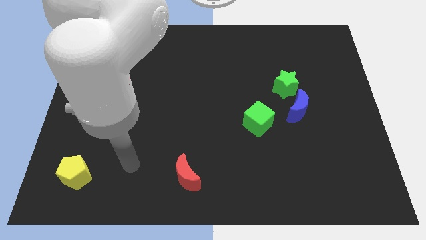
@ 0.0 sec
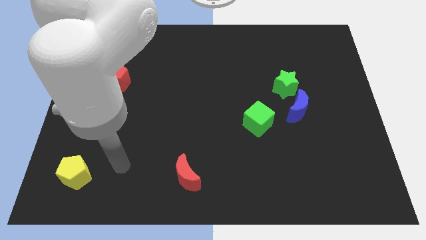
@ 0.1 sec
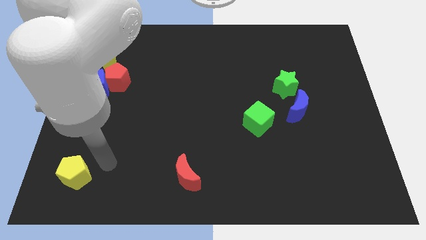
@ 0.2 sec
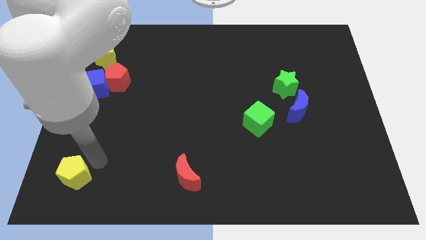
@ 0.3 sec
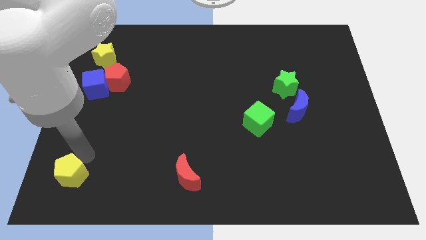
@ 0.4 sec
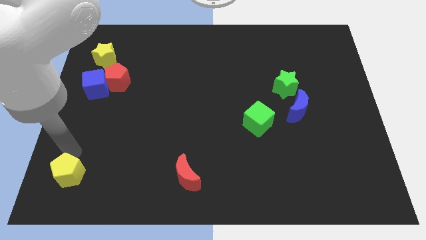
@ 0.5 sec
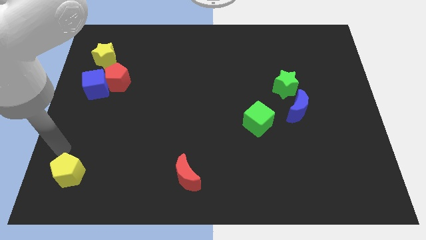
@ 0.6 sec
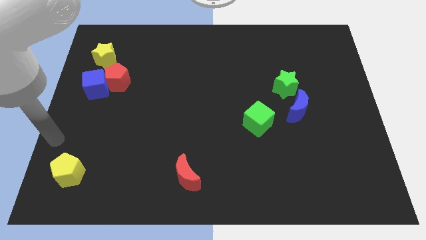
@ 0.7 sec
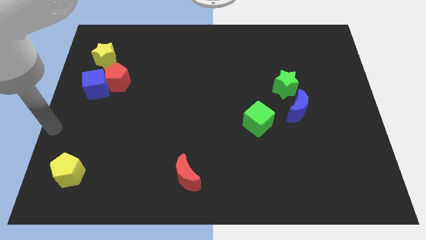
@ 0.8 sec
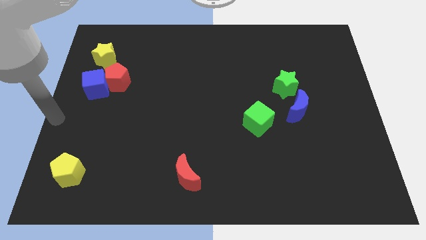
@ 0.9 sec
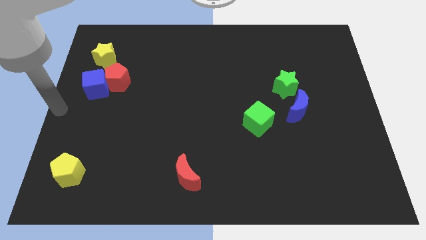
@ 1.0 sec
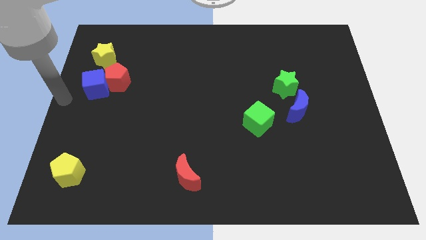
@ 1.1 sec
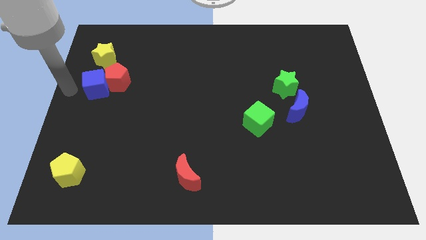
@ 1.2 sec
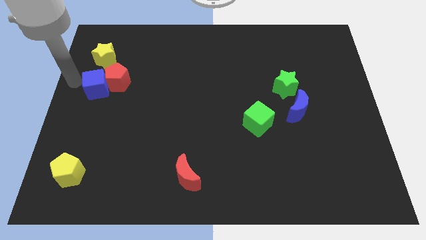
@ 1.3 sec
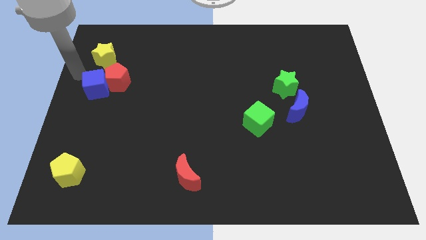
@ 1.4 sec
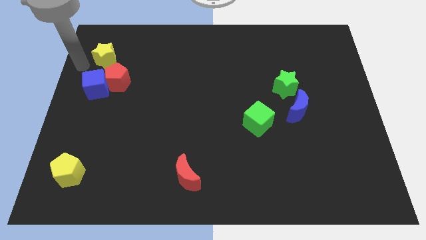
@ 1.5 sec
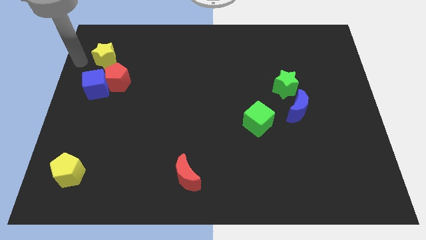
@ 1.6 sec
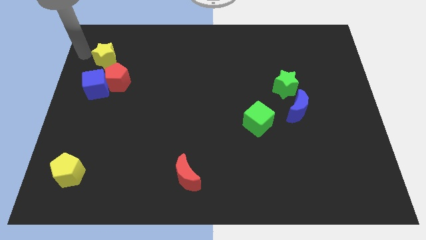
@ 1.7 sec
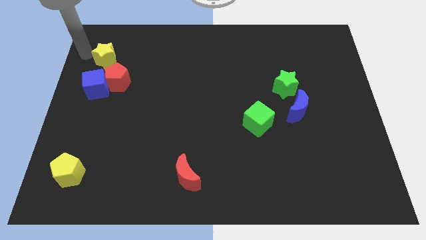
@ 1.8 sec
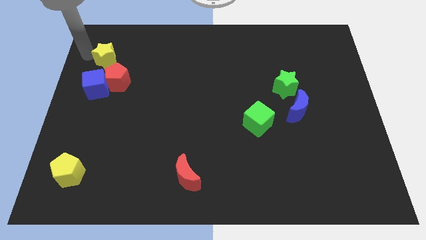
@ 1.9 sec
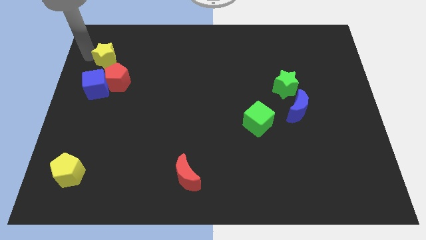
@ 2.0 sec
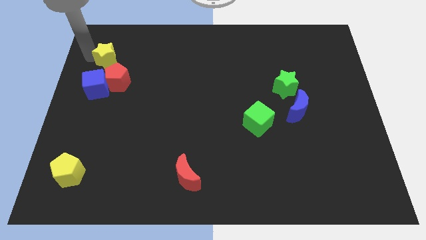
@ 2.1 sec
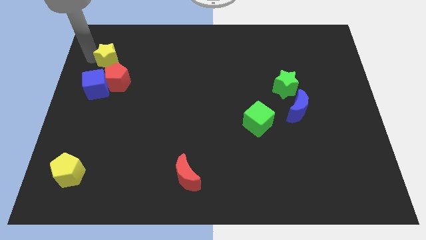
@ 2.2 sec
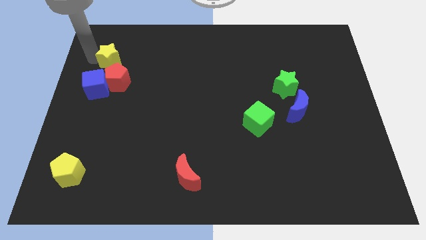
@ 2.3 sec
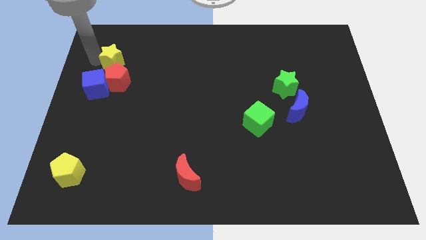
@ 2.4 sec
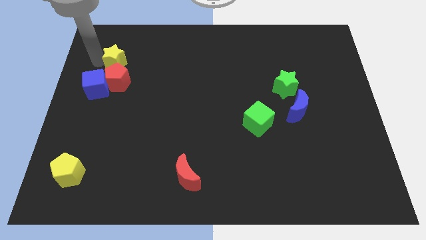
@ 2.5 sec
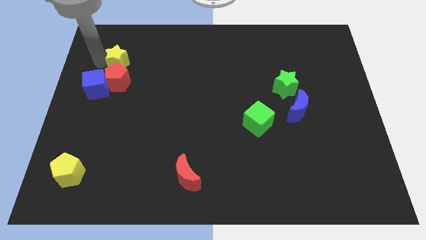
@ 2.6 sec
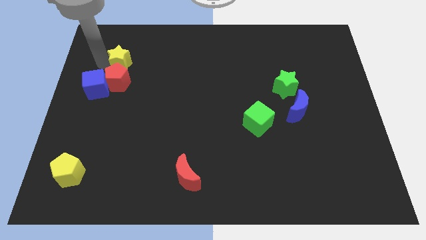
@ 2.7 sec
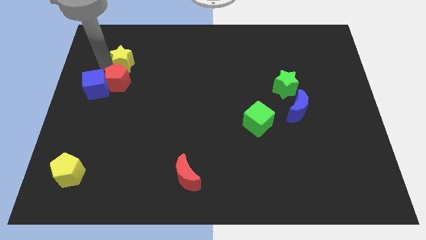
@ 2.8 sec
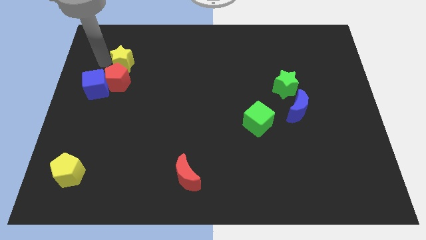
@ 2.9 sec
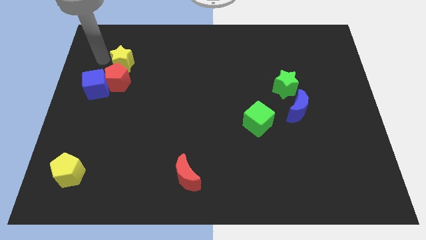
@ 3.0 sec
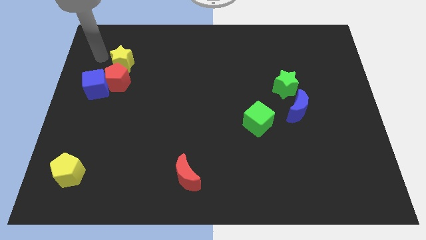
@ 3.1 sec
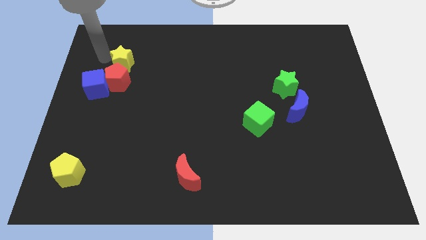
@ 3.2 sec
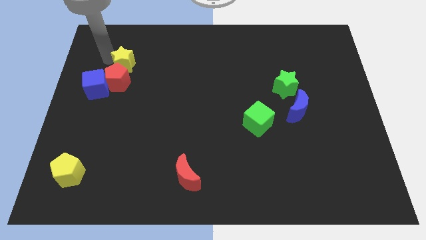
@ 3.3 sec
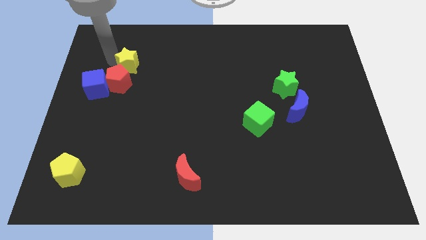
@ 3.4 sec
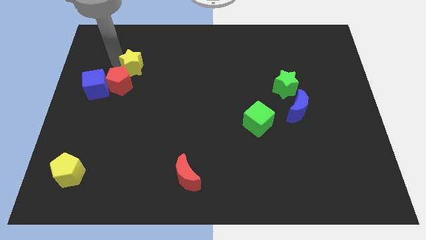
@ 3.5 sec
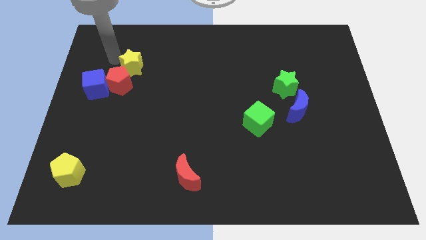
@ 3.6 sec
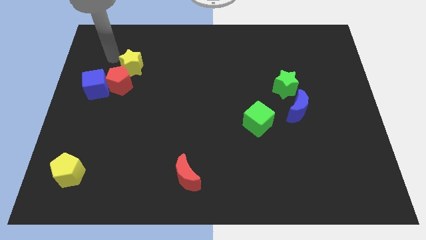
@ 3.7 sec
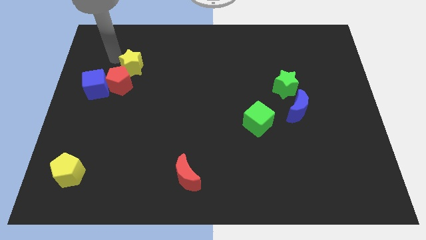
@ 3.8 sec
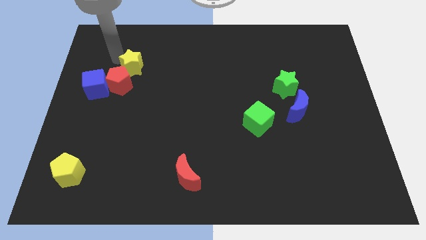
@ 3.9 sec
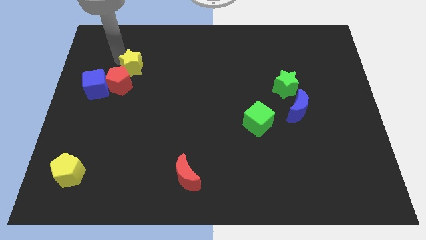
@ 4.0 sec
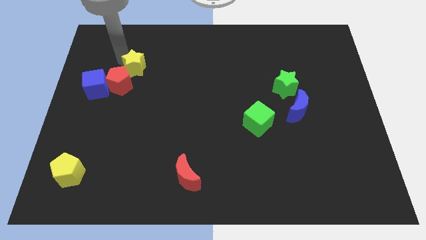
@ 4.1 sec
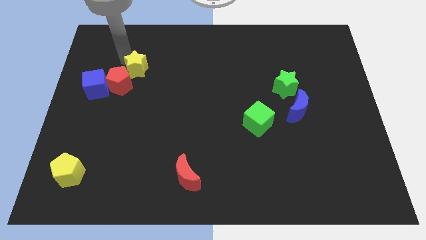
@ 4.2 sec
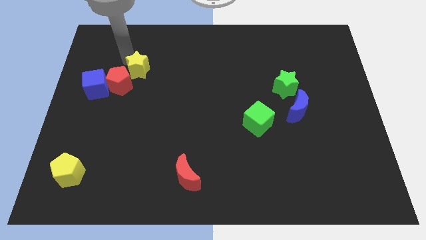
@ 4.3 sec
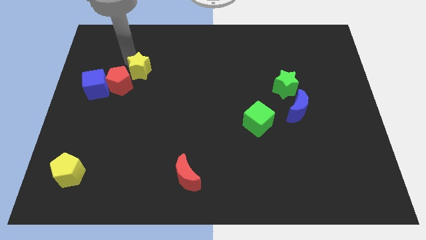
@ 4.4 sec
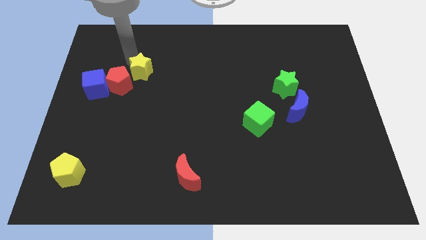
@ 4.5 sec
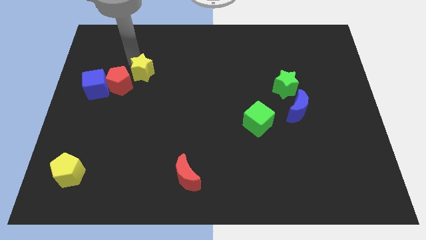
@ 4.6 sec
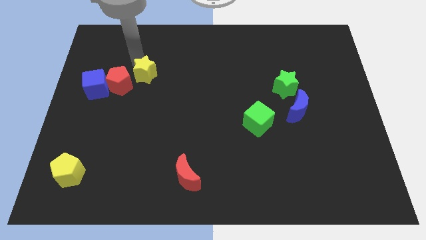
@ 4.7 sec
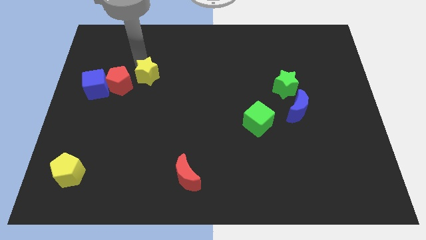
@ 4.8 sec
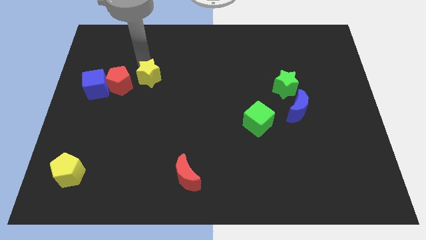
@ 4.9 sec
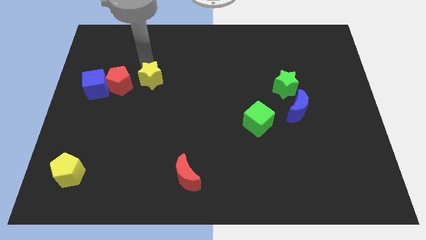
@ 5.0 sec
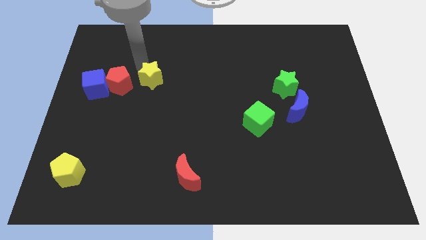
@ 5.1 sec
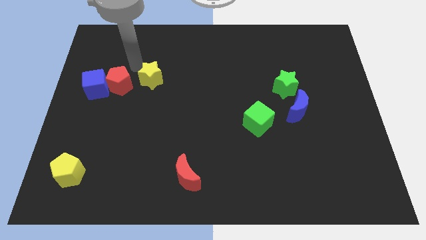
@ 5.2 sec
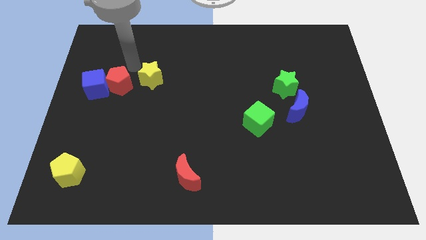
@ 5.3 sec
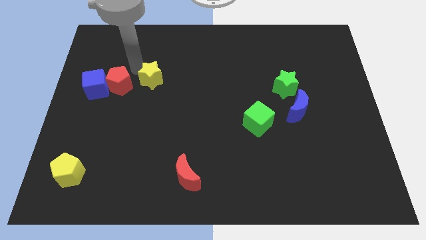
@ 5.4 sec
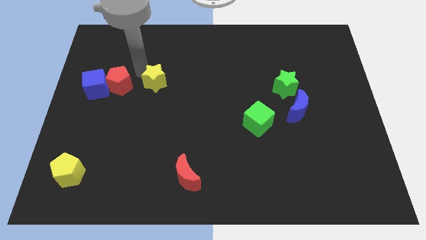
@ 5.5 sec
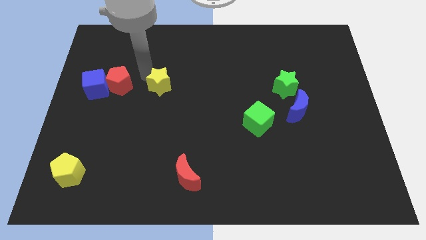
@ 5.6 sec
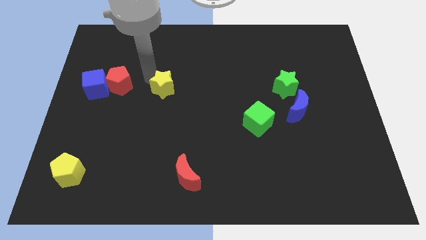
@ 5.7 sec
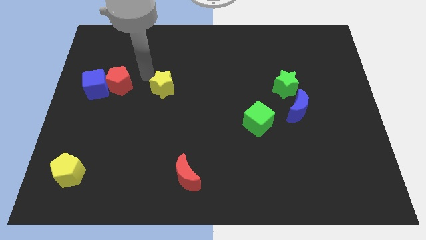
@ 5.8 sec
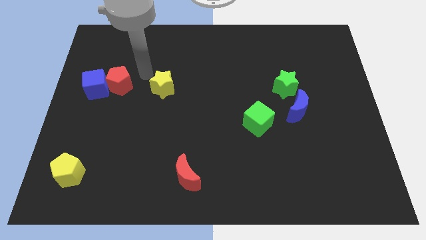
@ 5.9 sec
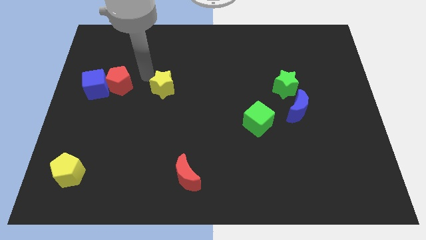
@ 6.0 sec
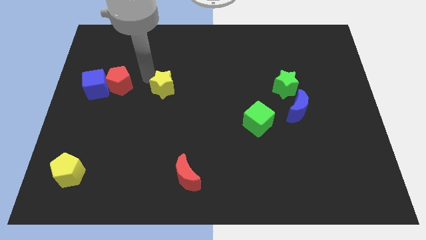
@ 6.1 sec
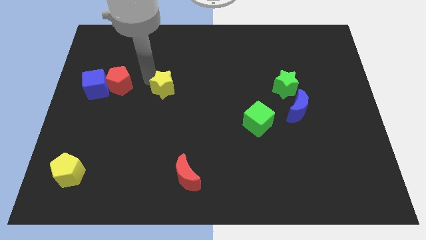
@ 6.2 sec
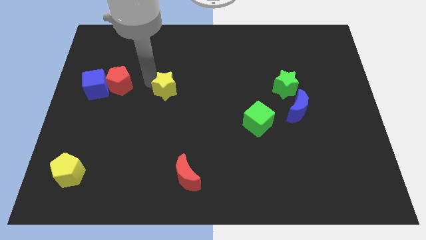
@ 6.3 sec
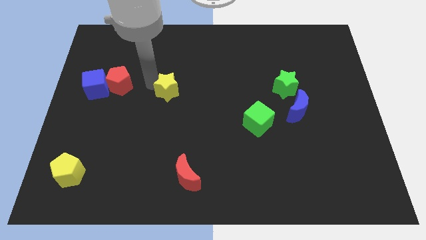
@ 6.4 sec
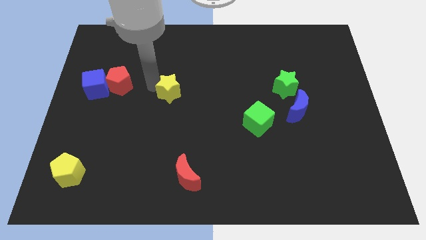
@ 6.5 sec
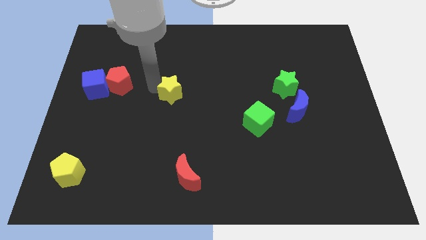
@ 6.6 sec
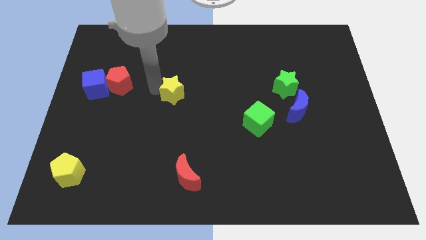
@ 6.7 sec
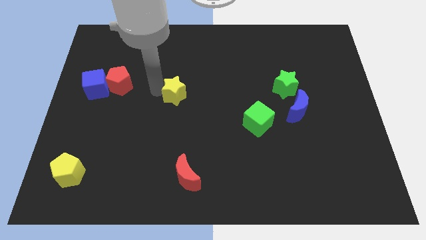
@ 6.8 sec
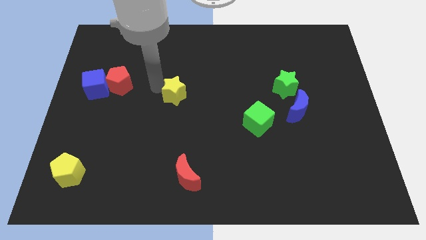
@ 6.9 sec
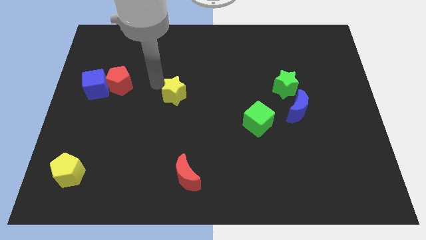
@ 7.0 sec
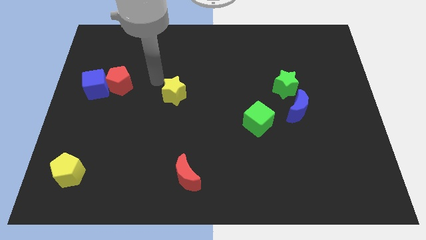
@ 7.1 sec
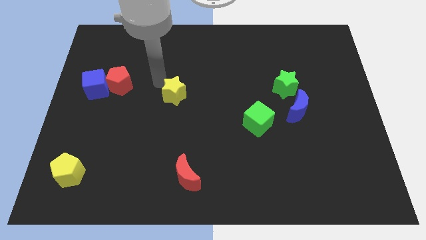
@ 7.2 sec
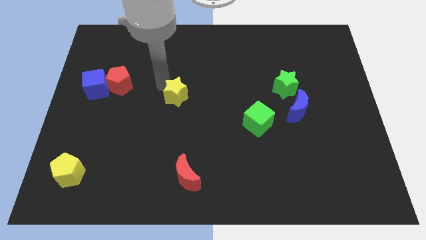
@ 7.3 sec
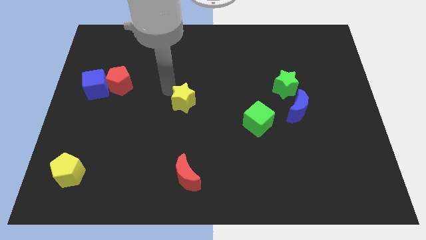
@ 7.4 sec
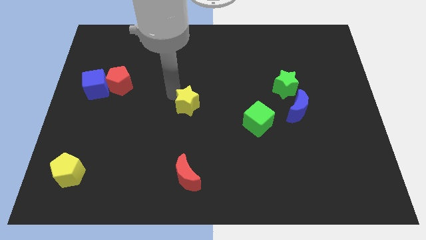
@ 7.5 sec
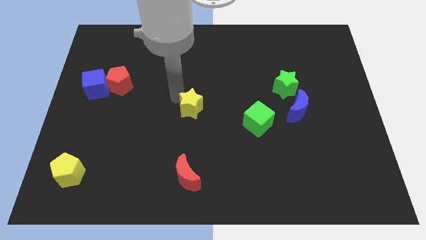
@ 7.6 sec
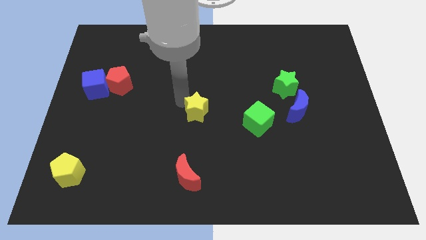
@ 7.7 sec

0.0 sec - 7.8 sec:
move the yellow star just left of the green cube

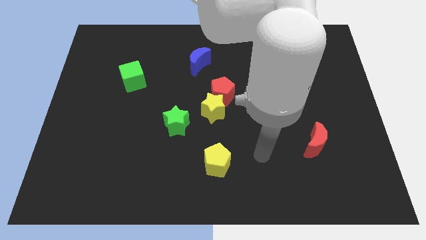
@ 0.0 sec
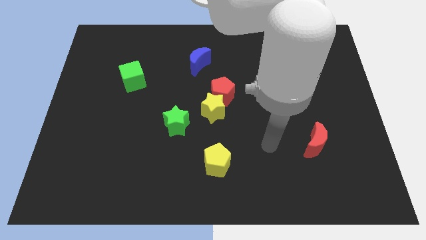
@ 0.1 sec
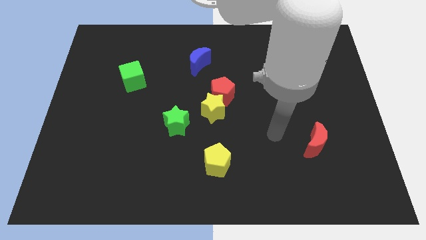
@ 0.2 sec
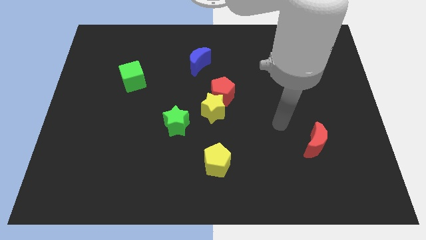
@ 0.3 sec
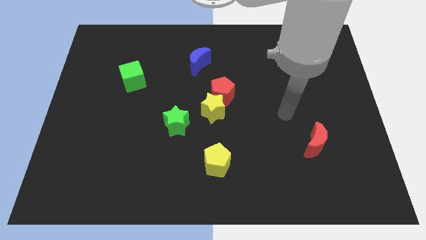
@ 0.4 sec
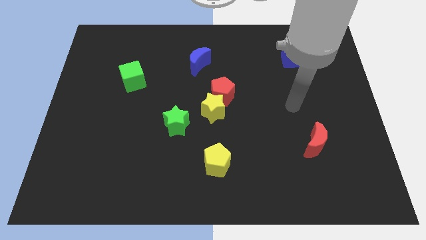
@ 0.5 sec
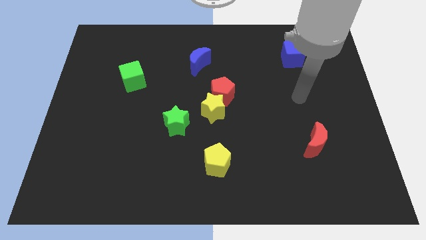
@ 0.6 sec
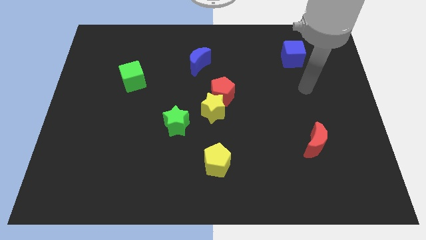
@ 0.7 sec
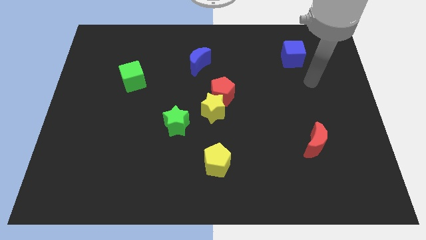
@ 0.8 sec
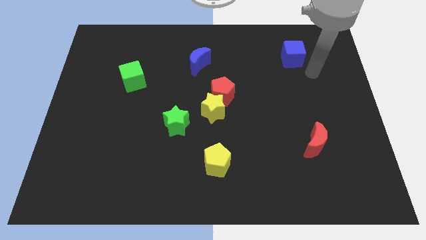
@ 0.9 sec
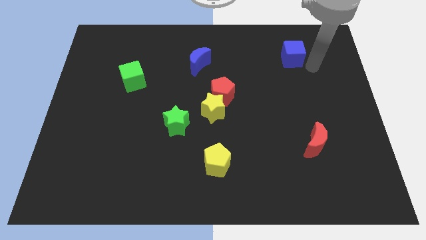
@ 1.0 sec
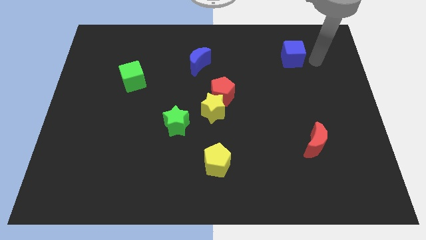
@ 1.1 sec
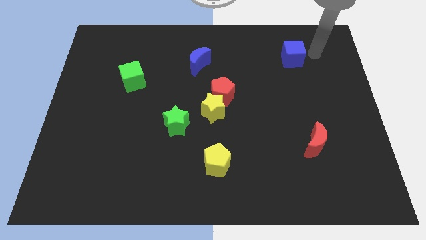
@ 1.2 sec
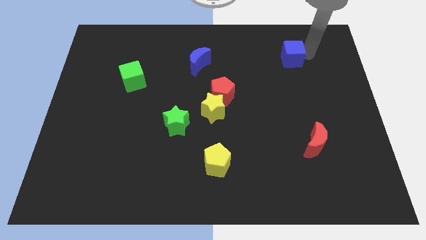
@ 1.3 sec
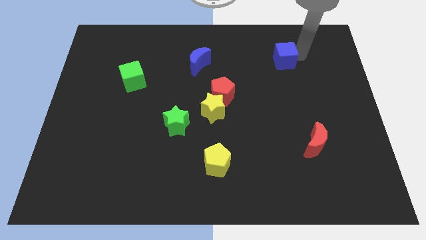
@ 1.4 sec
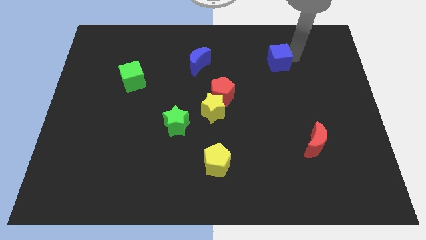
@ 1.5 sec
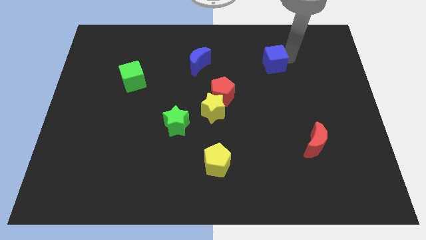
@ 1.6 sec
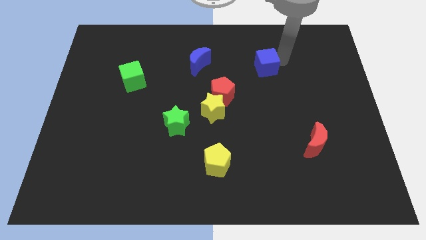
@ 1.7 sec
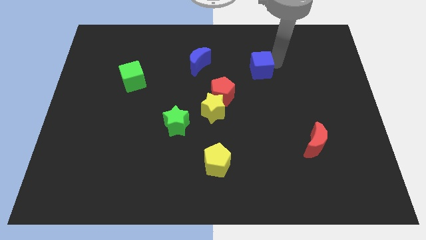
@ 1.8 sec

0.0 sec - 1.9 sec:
push the blue cube just right of the blue moon
